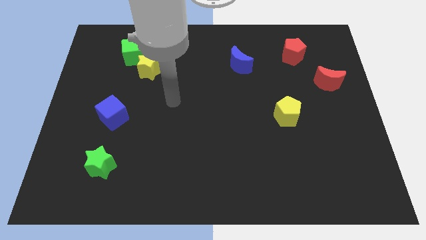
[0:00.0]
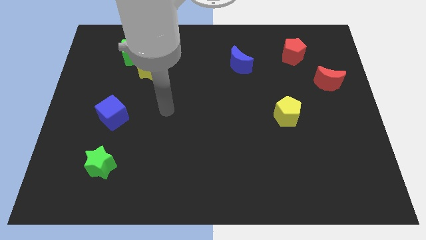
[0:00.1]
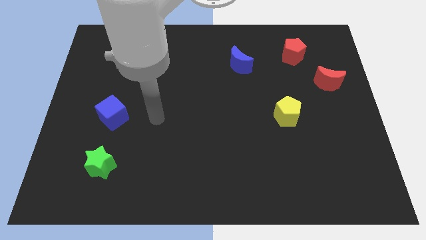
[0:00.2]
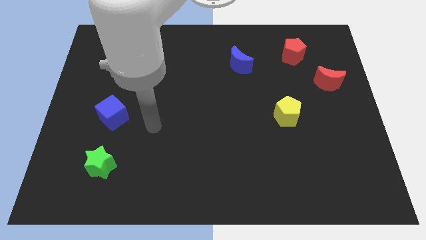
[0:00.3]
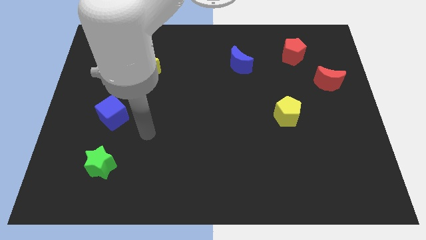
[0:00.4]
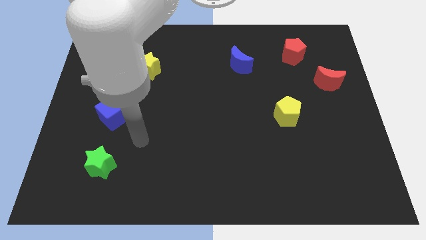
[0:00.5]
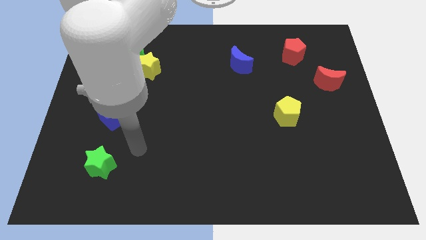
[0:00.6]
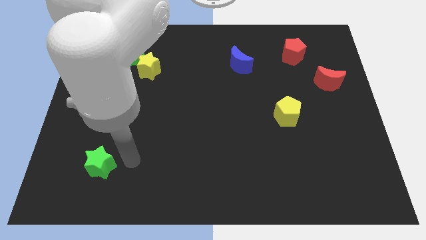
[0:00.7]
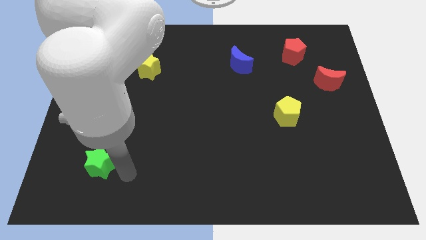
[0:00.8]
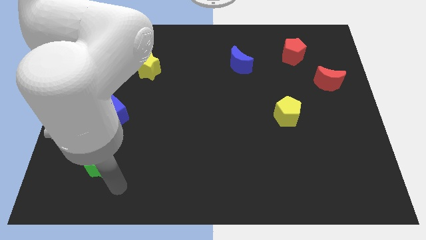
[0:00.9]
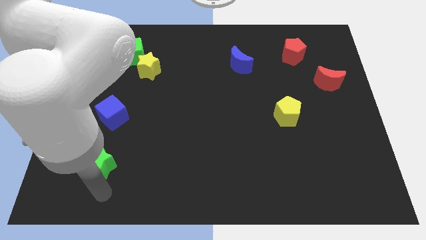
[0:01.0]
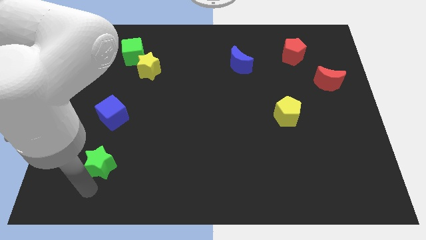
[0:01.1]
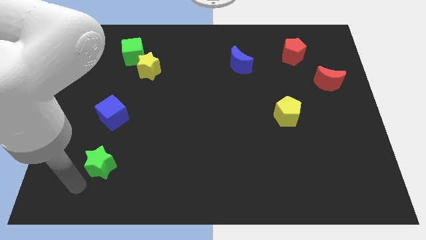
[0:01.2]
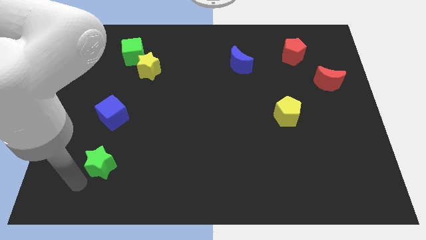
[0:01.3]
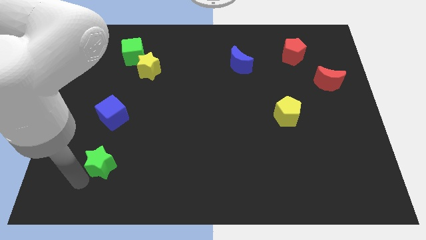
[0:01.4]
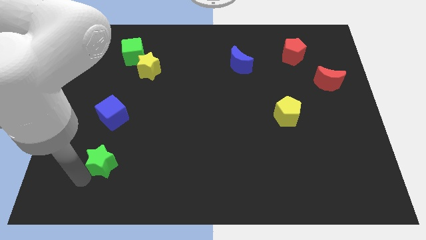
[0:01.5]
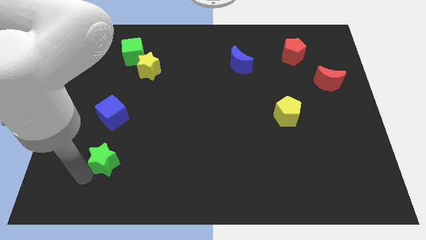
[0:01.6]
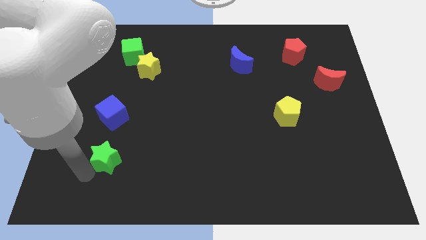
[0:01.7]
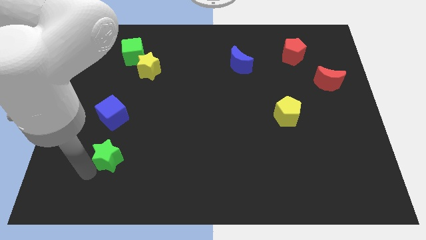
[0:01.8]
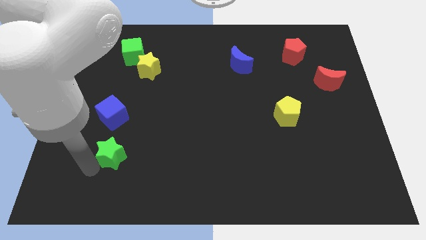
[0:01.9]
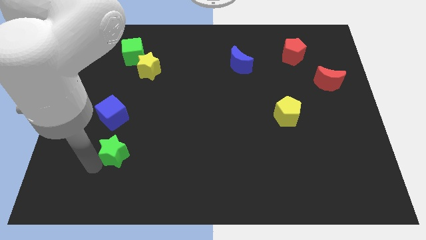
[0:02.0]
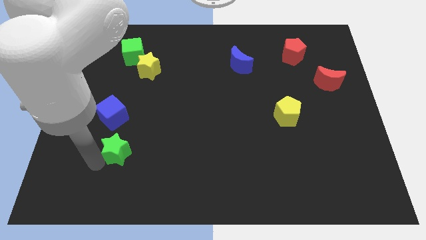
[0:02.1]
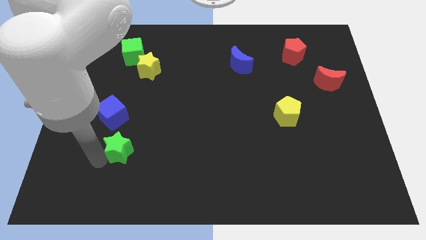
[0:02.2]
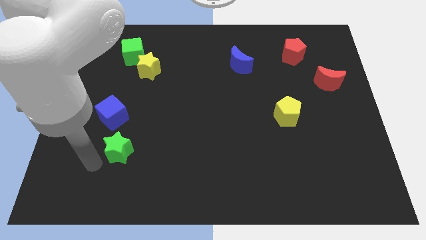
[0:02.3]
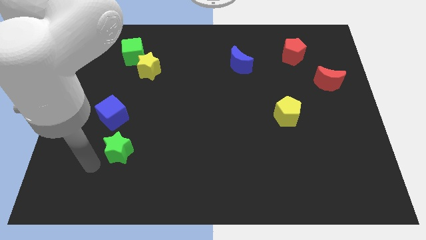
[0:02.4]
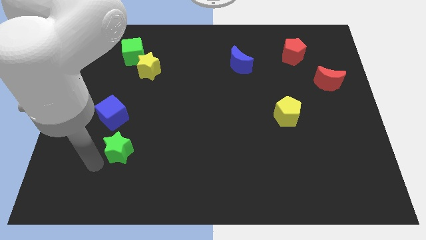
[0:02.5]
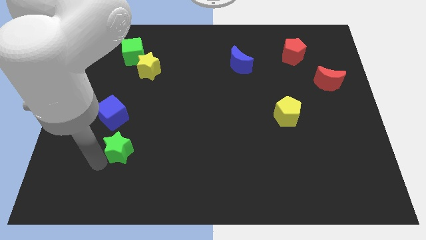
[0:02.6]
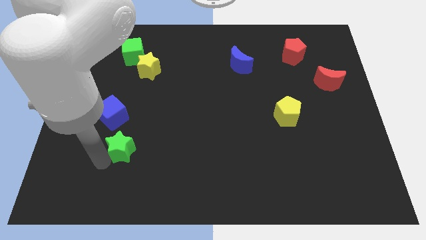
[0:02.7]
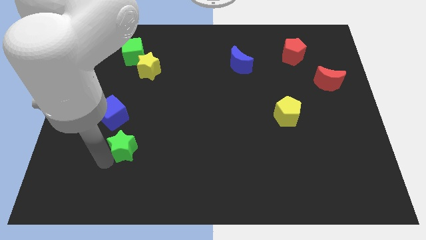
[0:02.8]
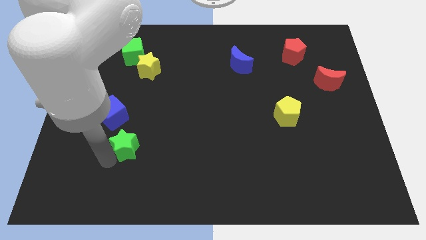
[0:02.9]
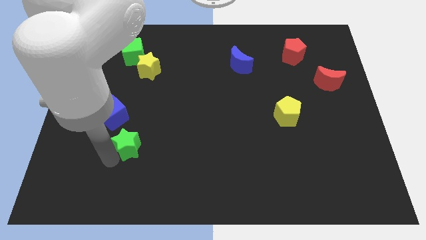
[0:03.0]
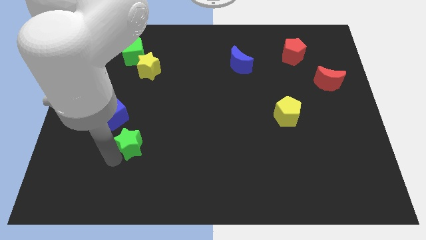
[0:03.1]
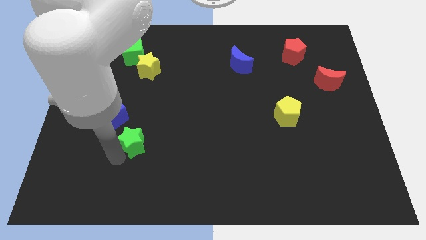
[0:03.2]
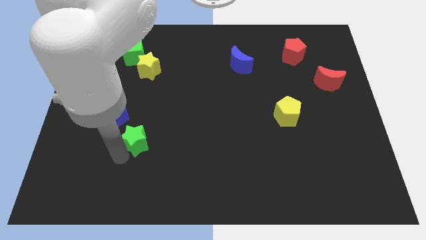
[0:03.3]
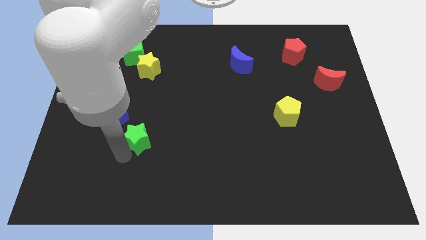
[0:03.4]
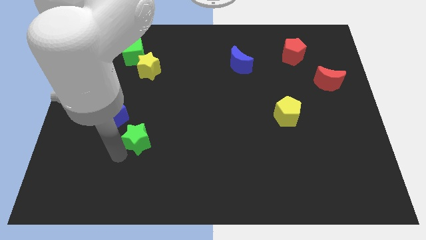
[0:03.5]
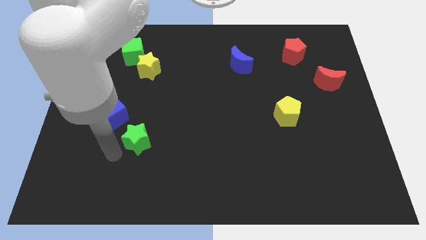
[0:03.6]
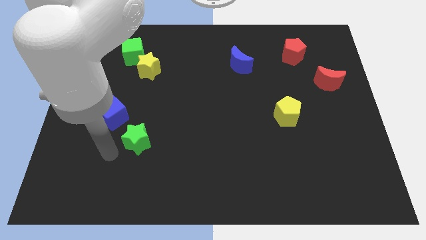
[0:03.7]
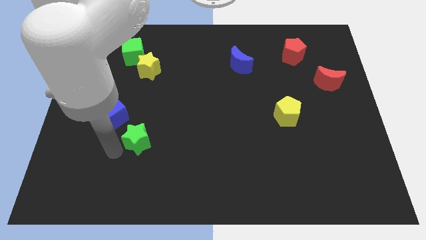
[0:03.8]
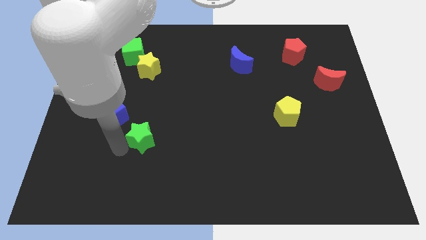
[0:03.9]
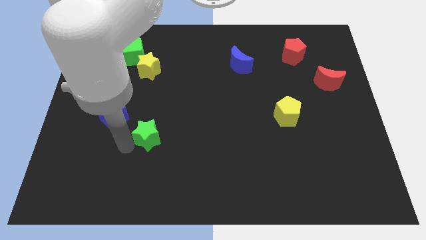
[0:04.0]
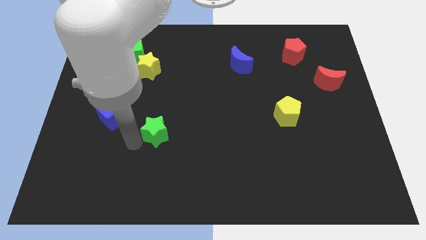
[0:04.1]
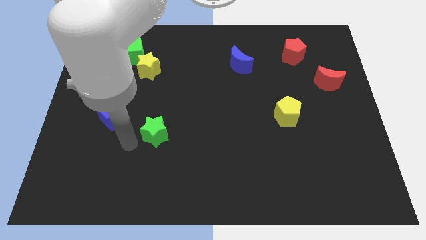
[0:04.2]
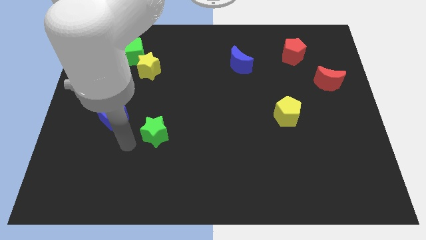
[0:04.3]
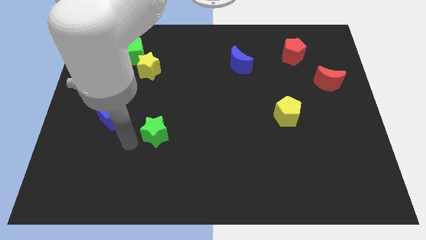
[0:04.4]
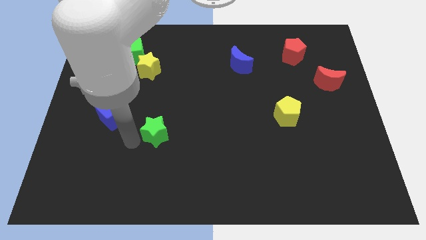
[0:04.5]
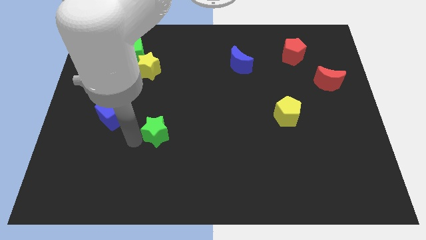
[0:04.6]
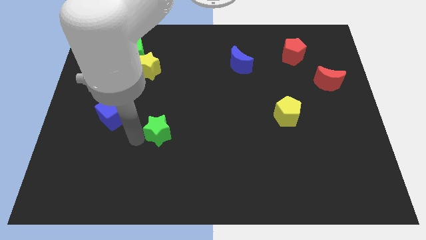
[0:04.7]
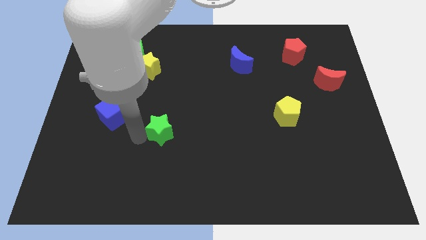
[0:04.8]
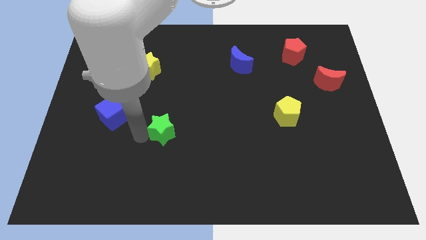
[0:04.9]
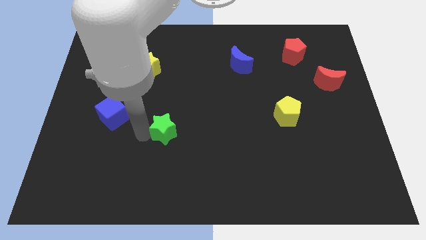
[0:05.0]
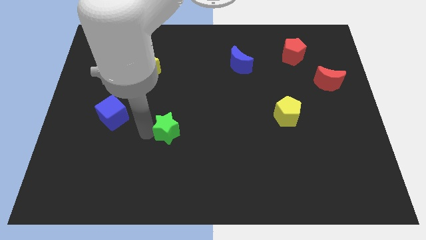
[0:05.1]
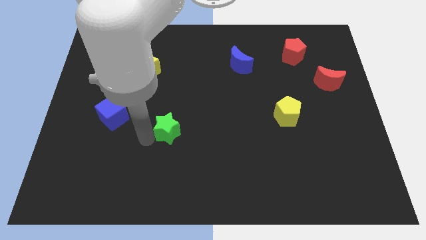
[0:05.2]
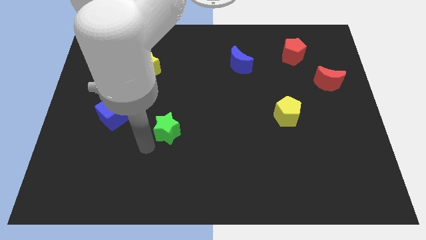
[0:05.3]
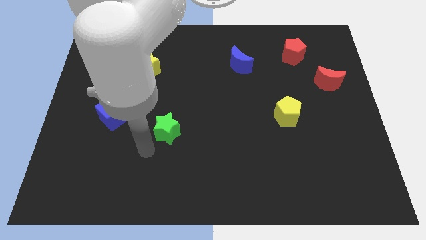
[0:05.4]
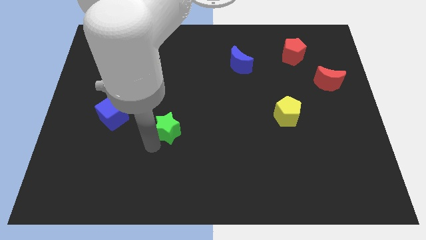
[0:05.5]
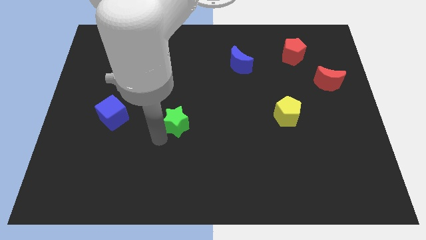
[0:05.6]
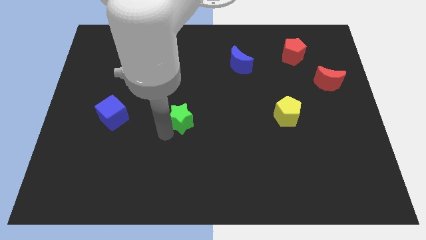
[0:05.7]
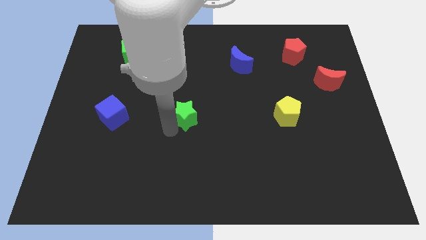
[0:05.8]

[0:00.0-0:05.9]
push the green star diagonally upwards and right

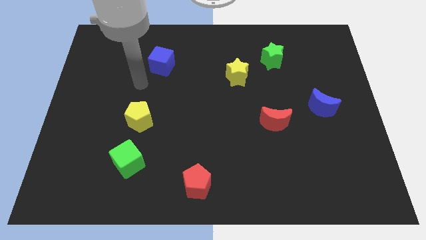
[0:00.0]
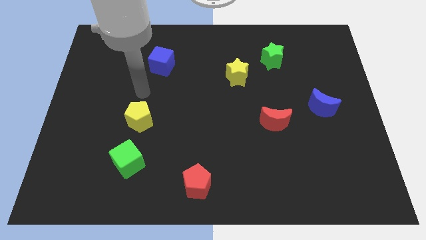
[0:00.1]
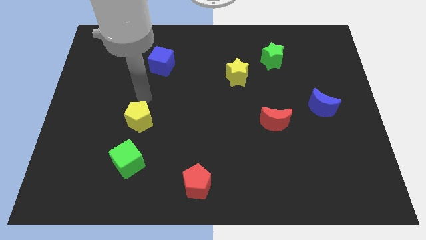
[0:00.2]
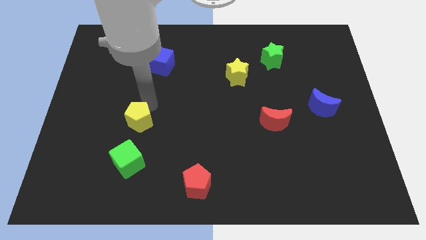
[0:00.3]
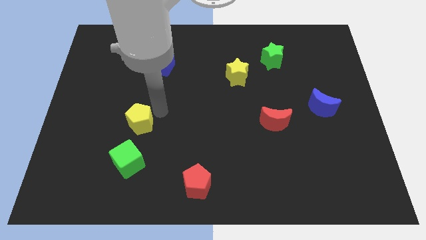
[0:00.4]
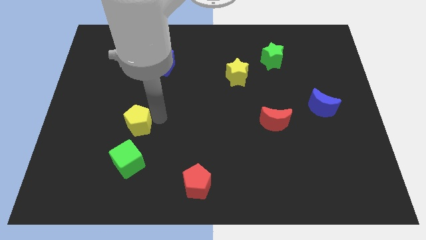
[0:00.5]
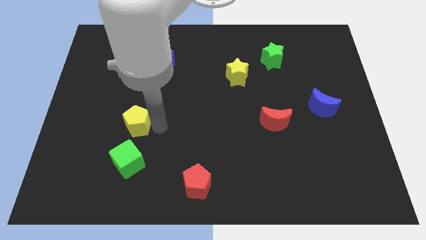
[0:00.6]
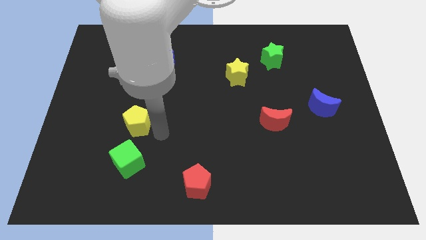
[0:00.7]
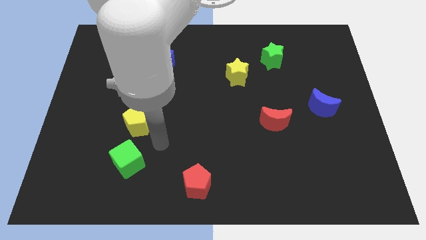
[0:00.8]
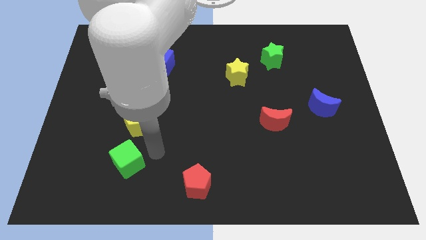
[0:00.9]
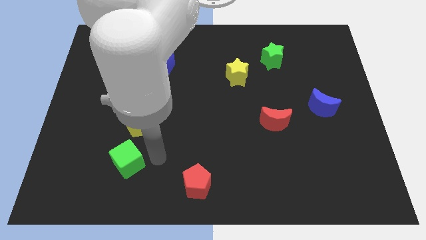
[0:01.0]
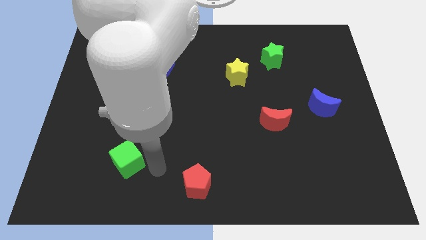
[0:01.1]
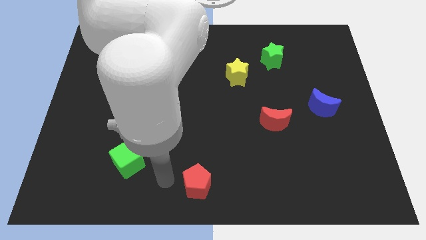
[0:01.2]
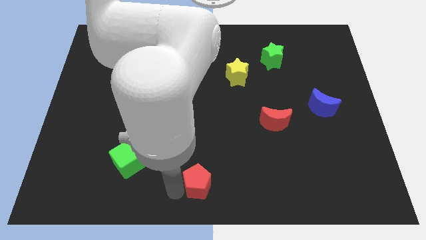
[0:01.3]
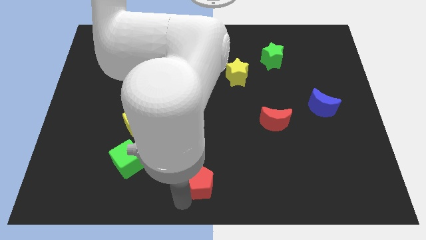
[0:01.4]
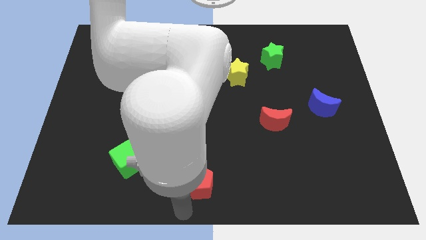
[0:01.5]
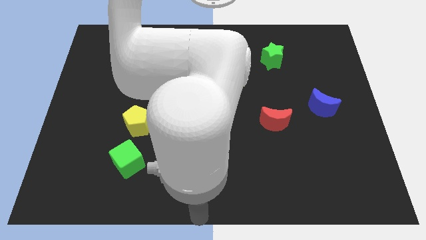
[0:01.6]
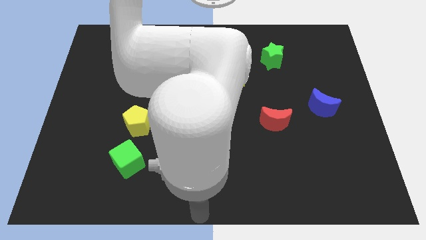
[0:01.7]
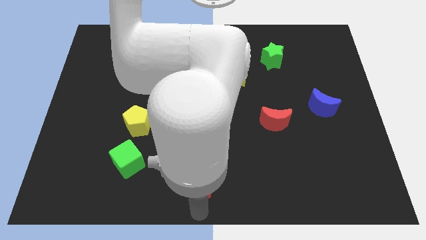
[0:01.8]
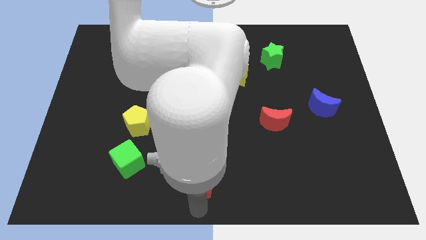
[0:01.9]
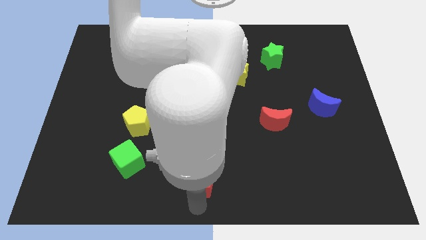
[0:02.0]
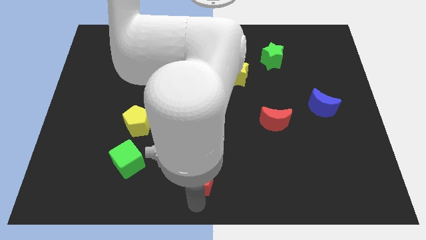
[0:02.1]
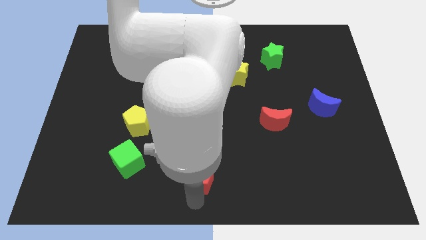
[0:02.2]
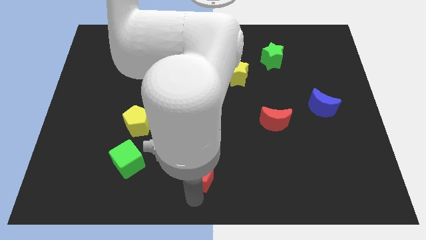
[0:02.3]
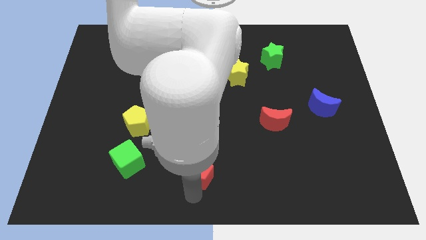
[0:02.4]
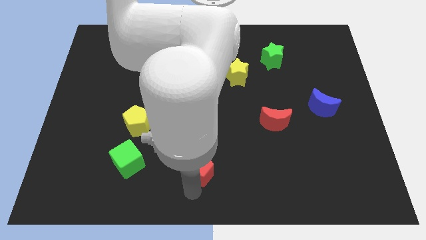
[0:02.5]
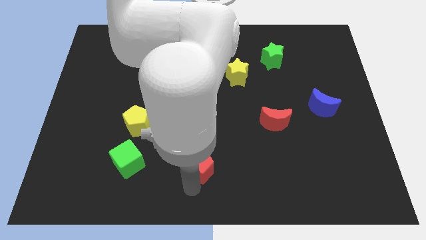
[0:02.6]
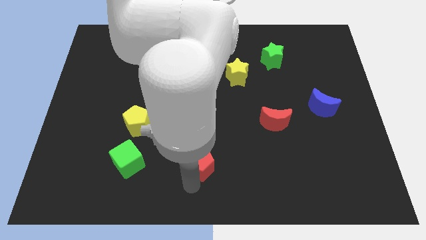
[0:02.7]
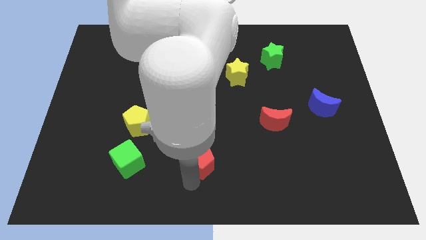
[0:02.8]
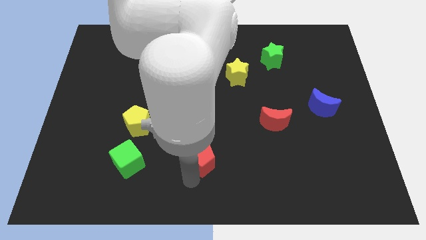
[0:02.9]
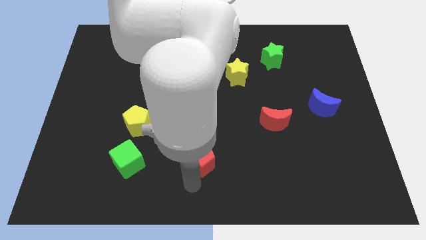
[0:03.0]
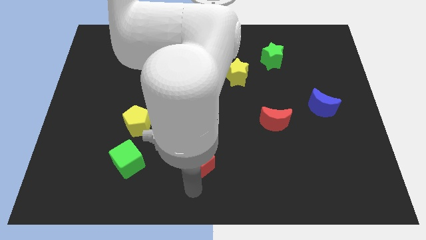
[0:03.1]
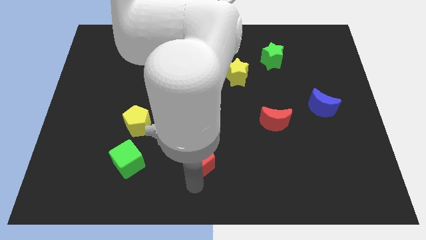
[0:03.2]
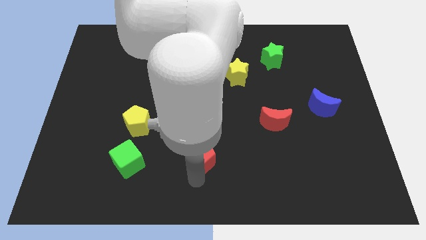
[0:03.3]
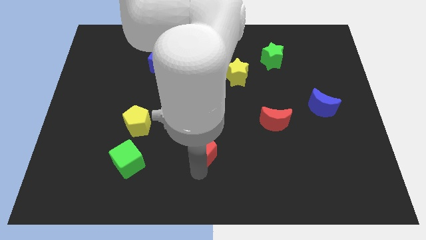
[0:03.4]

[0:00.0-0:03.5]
push the red pentagon upwards a little
